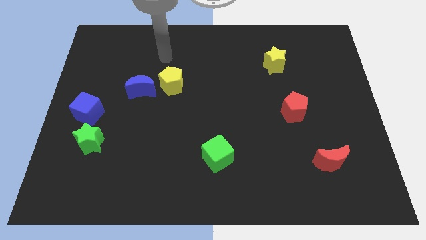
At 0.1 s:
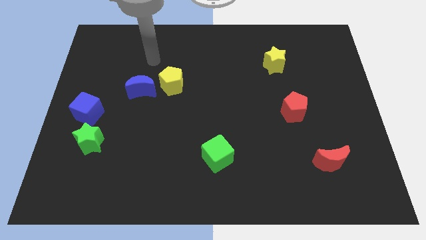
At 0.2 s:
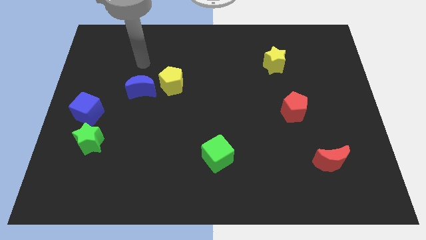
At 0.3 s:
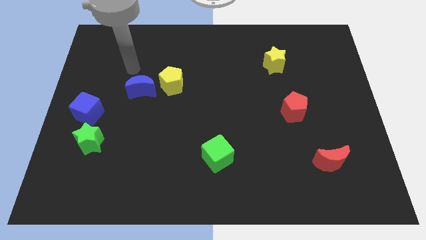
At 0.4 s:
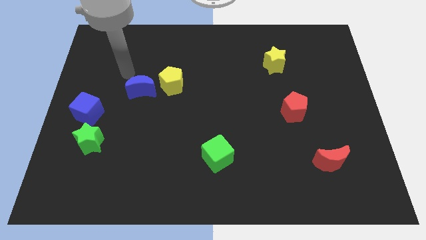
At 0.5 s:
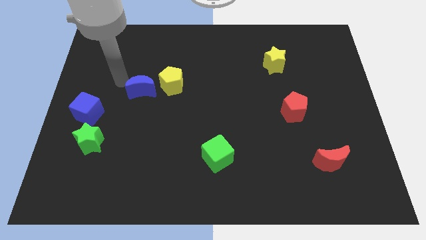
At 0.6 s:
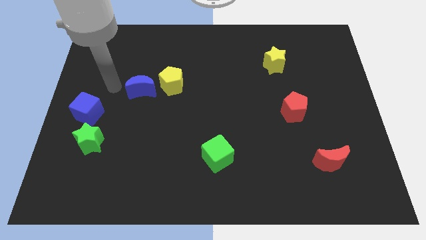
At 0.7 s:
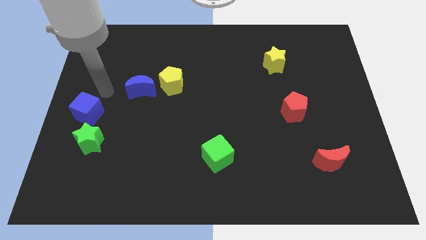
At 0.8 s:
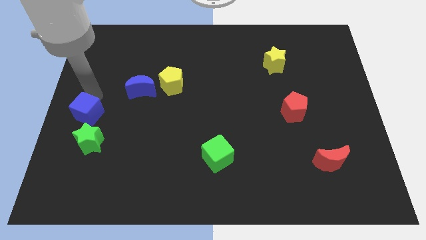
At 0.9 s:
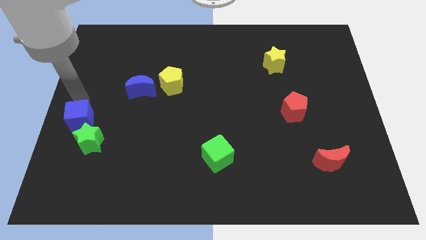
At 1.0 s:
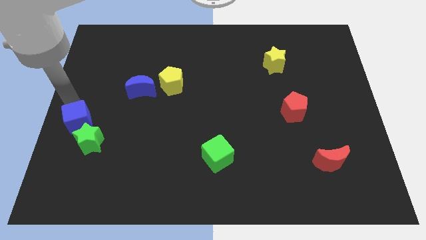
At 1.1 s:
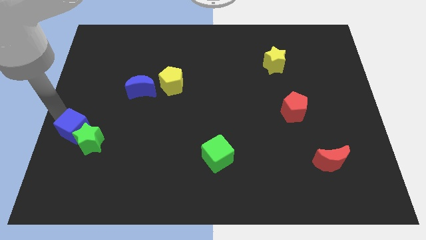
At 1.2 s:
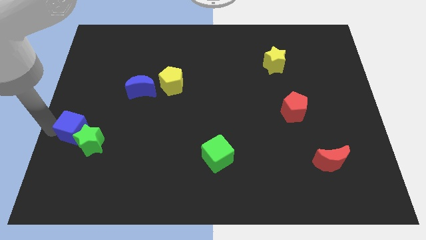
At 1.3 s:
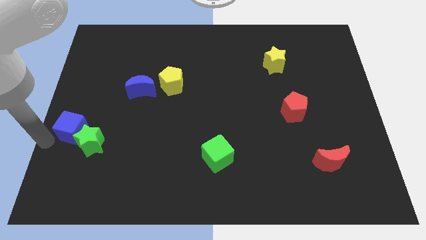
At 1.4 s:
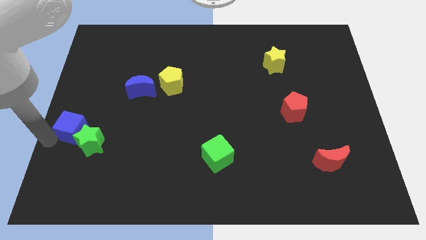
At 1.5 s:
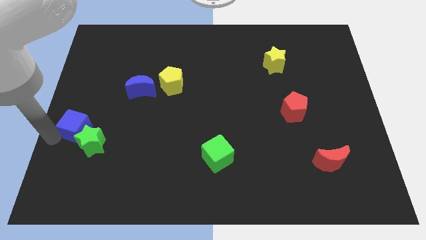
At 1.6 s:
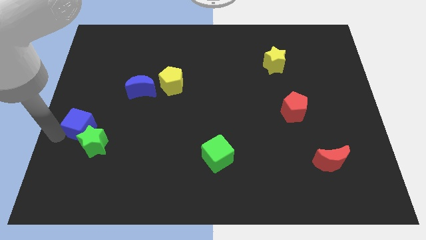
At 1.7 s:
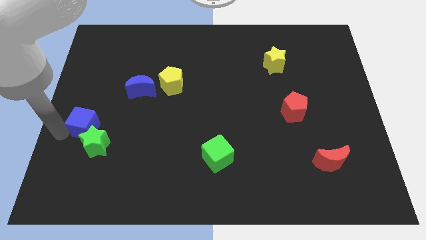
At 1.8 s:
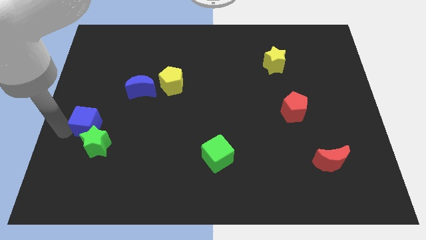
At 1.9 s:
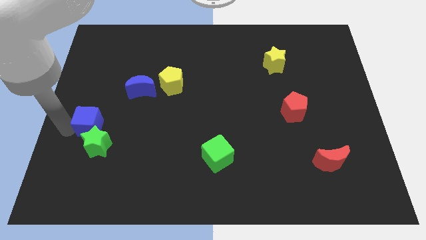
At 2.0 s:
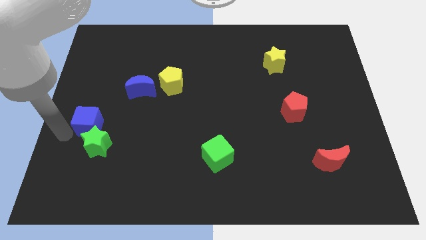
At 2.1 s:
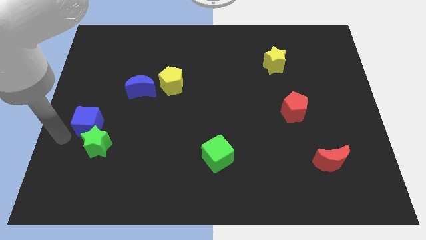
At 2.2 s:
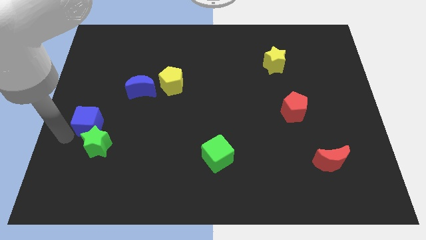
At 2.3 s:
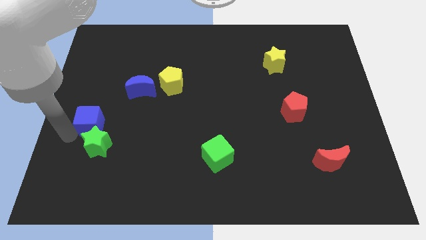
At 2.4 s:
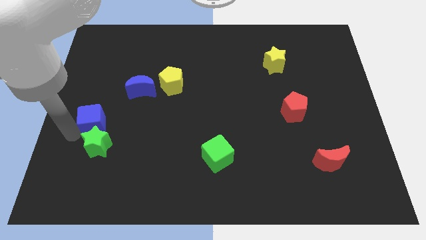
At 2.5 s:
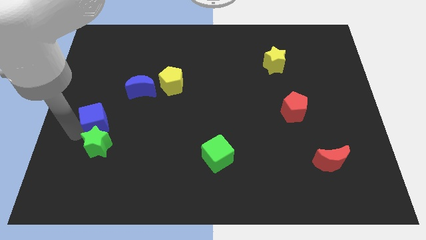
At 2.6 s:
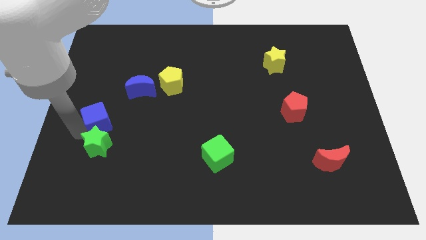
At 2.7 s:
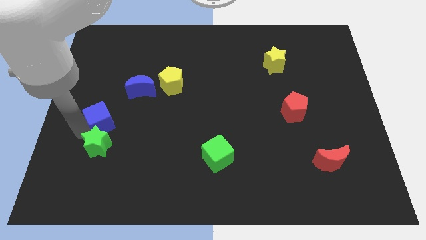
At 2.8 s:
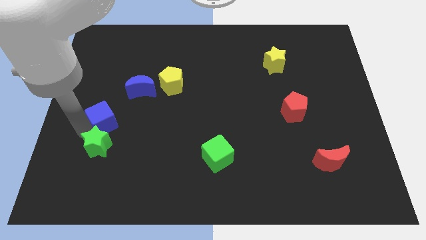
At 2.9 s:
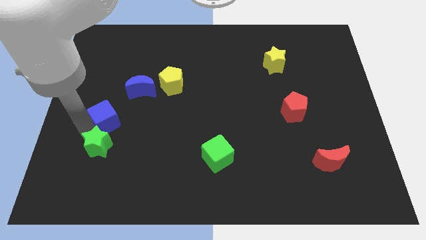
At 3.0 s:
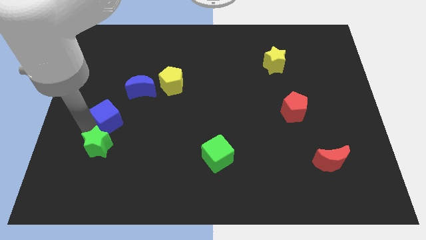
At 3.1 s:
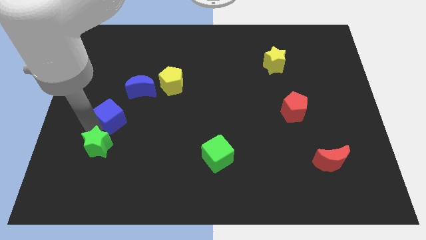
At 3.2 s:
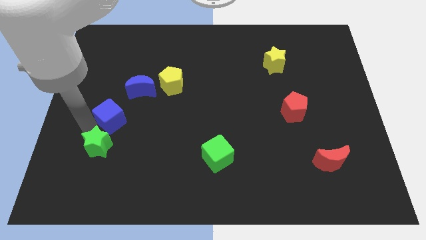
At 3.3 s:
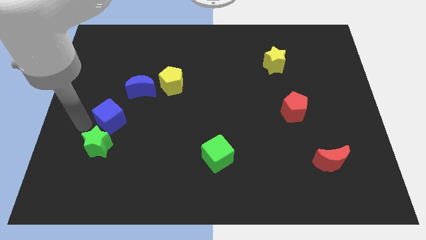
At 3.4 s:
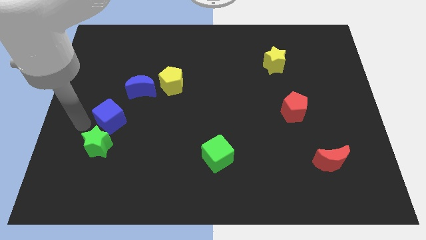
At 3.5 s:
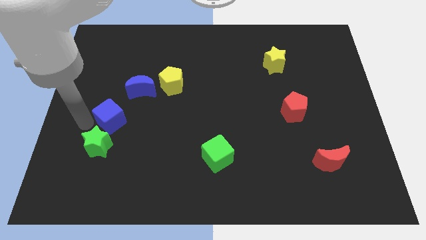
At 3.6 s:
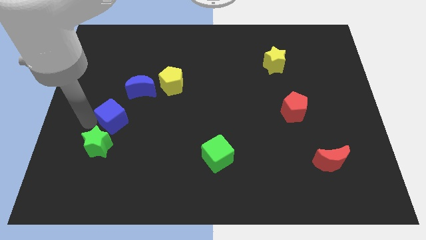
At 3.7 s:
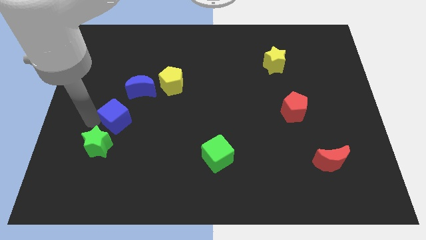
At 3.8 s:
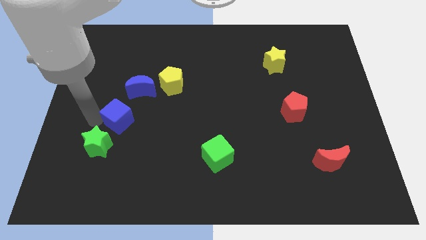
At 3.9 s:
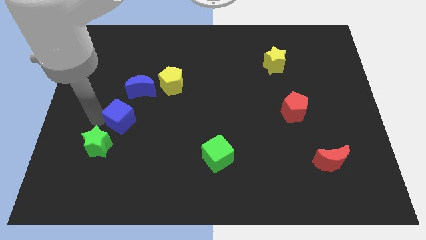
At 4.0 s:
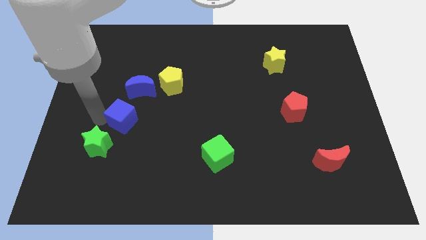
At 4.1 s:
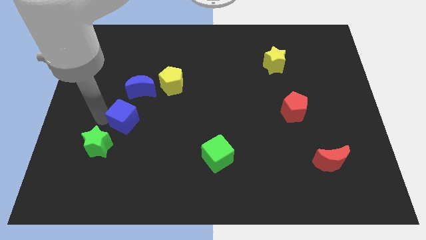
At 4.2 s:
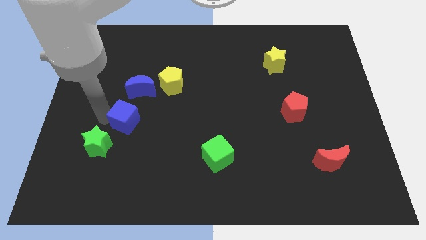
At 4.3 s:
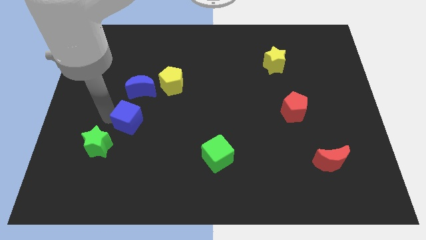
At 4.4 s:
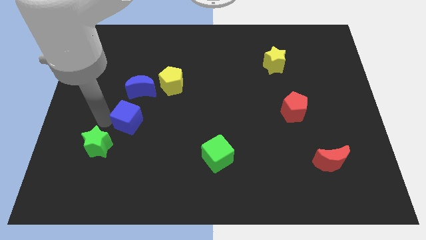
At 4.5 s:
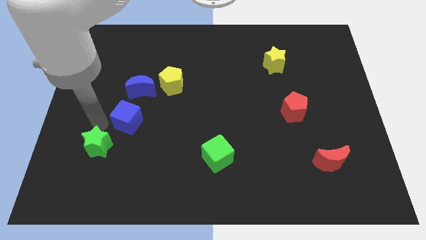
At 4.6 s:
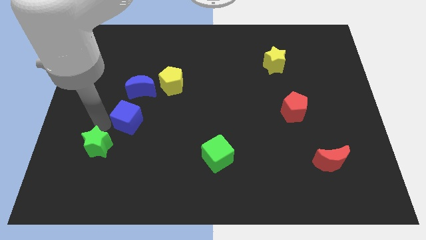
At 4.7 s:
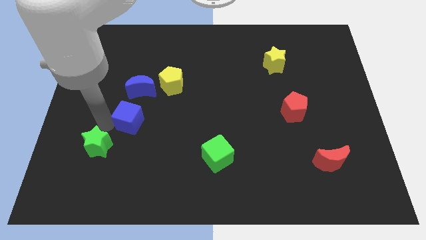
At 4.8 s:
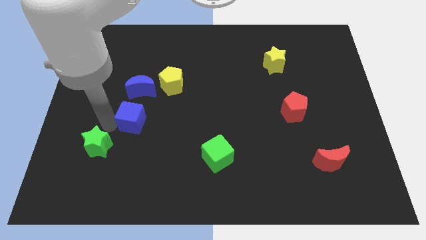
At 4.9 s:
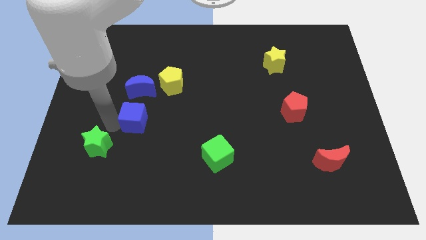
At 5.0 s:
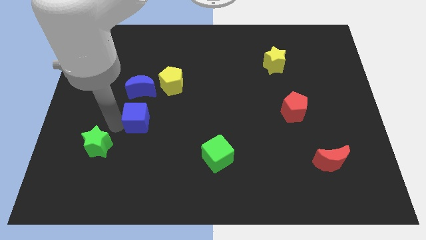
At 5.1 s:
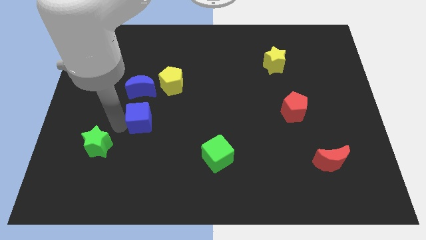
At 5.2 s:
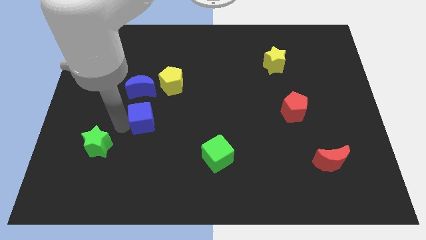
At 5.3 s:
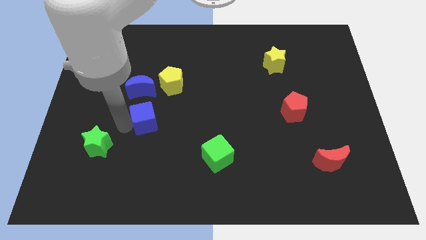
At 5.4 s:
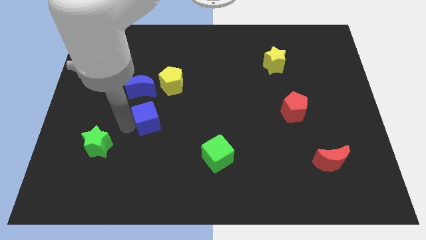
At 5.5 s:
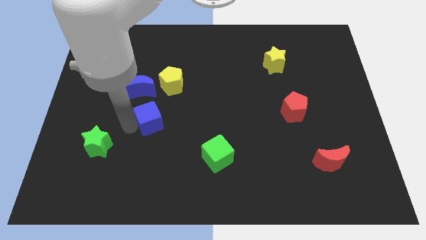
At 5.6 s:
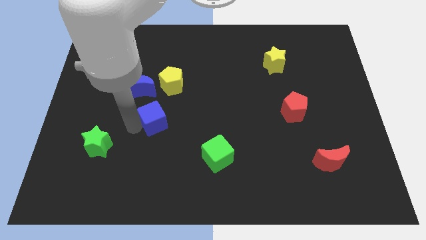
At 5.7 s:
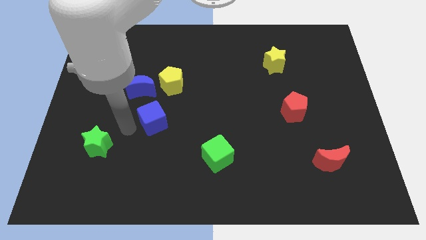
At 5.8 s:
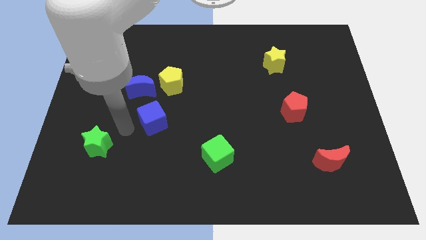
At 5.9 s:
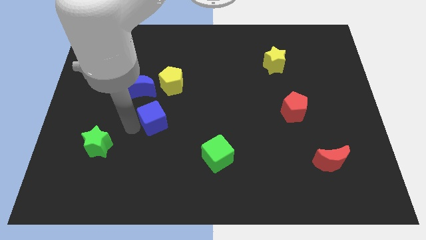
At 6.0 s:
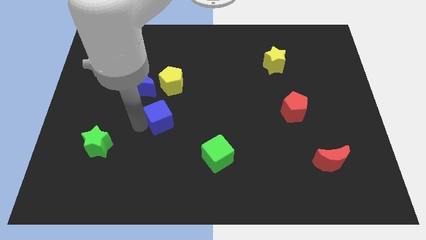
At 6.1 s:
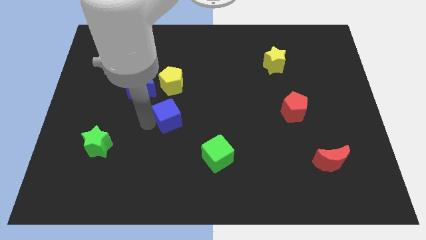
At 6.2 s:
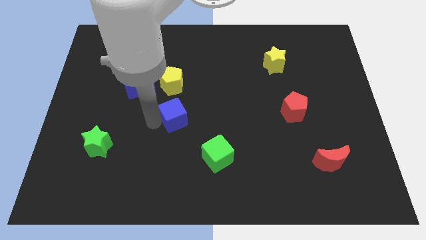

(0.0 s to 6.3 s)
slide the blue cube to the right

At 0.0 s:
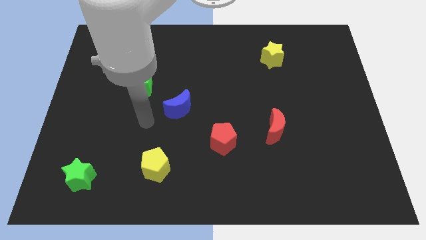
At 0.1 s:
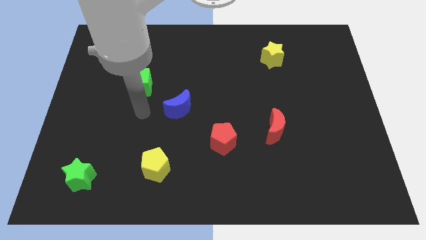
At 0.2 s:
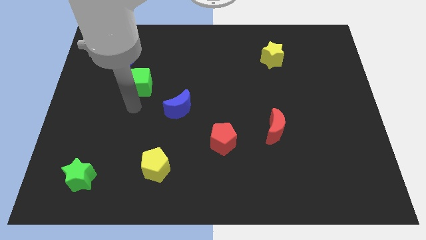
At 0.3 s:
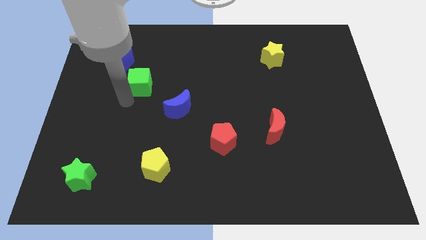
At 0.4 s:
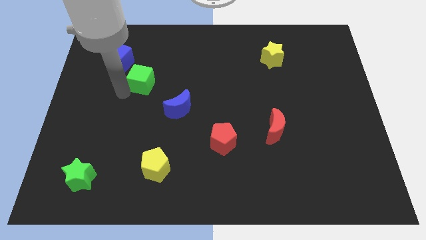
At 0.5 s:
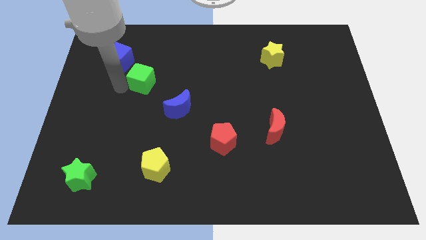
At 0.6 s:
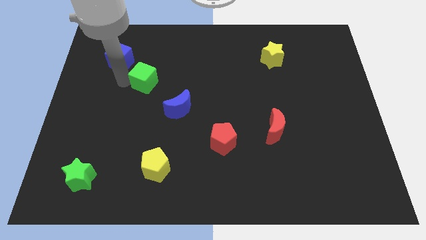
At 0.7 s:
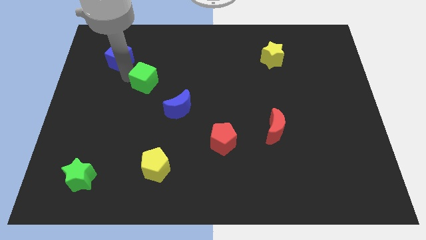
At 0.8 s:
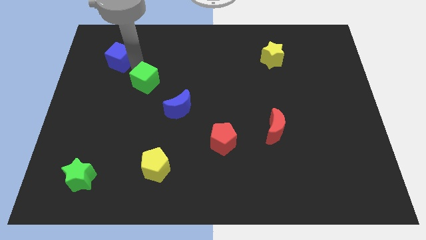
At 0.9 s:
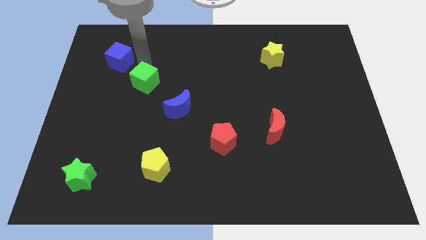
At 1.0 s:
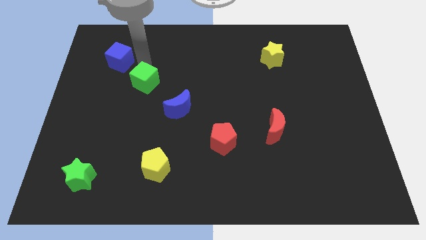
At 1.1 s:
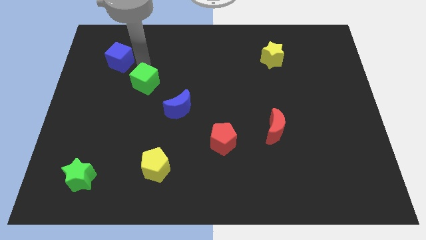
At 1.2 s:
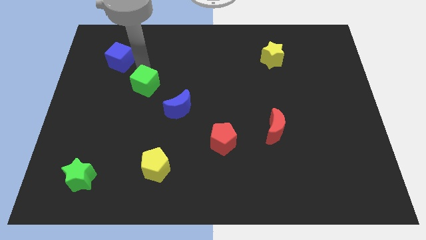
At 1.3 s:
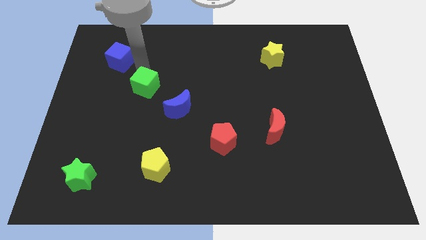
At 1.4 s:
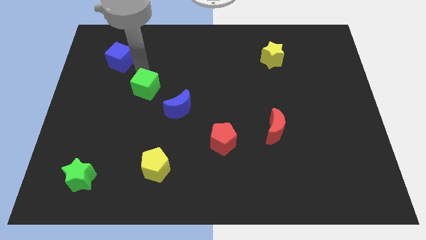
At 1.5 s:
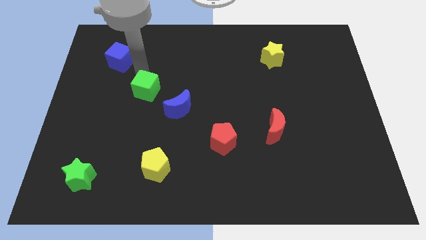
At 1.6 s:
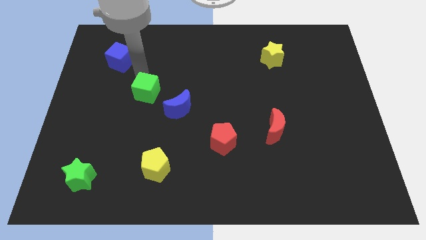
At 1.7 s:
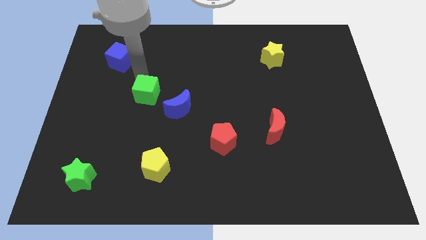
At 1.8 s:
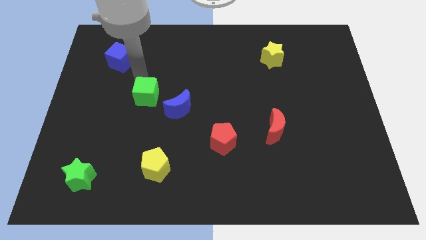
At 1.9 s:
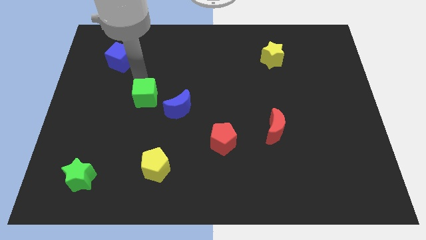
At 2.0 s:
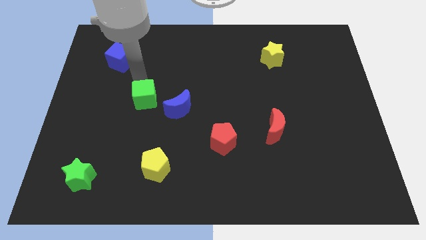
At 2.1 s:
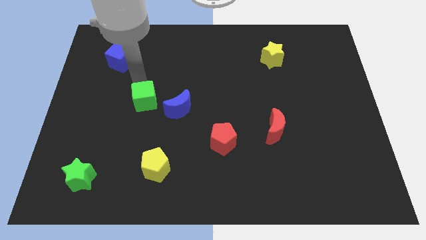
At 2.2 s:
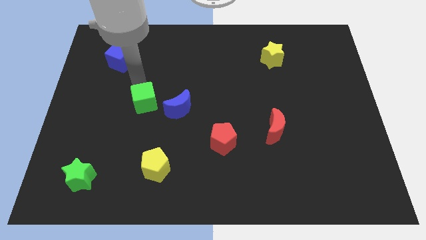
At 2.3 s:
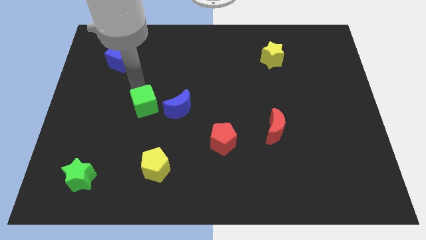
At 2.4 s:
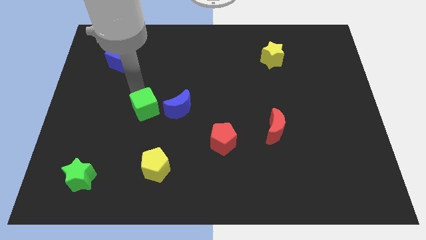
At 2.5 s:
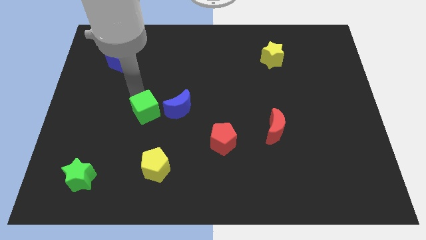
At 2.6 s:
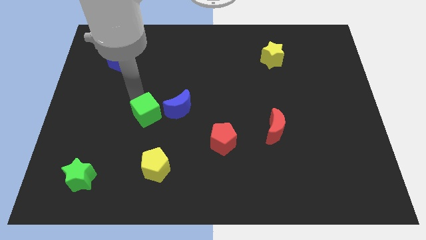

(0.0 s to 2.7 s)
push the green cube downwards and to the right a bit
